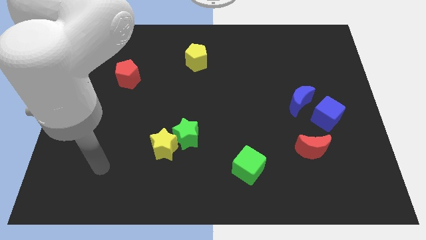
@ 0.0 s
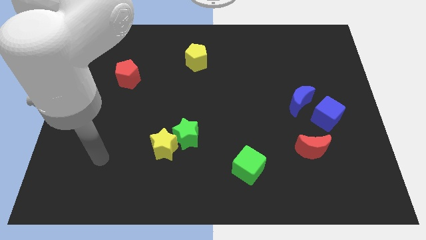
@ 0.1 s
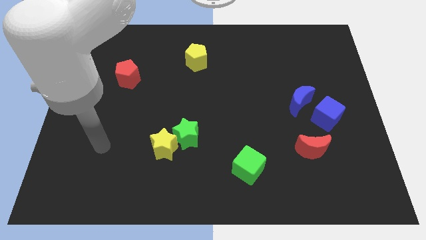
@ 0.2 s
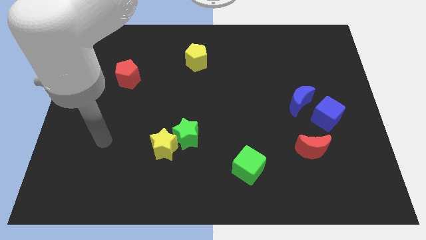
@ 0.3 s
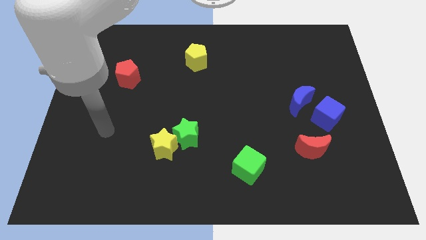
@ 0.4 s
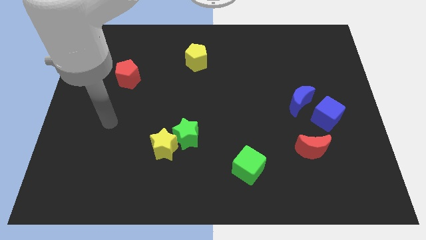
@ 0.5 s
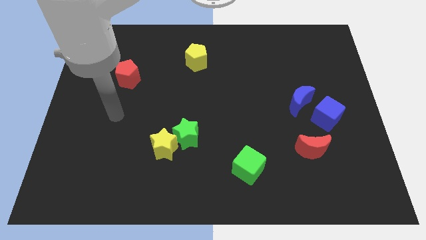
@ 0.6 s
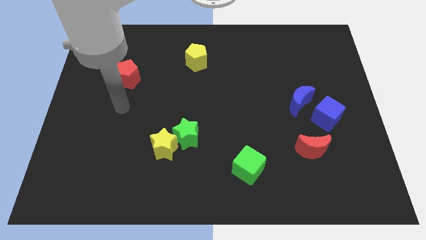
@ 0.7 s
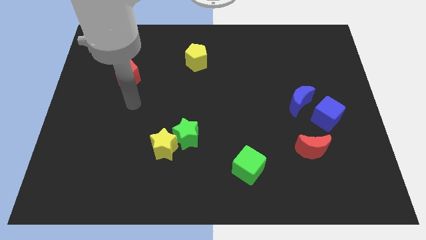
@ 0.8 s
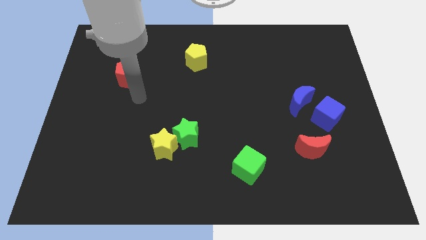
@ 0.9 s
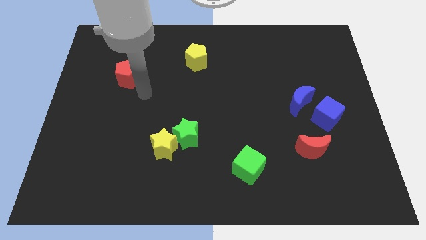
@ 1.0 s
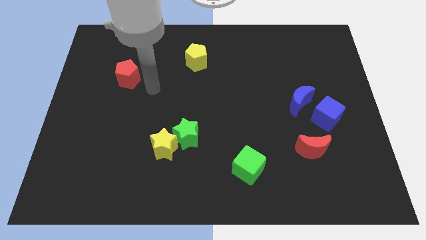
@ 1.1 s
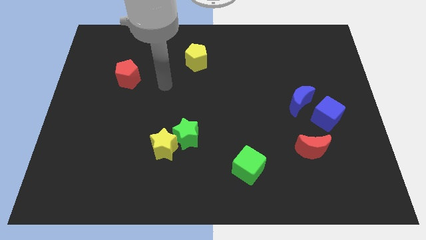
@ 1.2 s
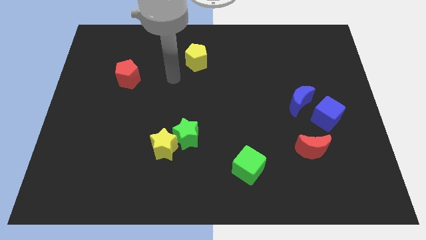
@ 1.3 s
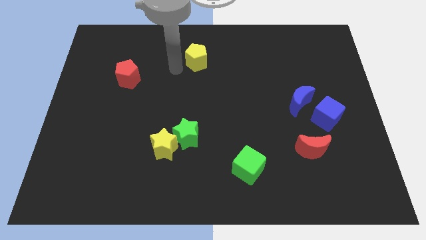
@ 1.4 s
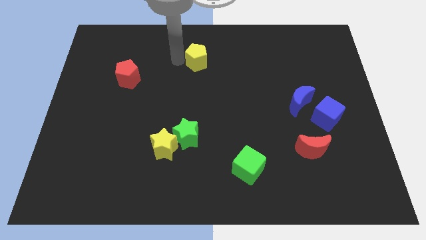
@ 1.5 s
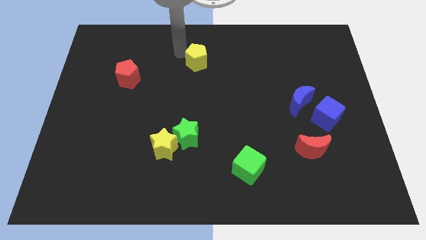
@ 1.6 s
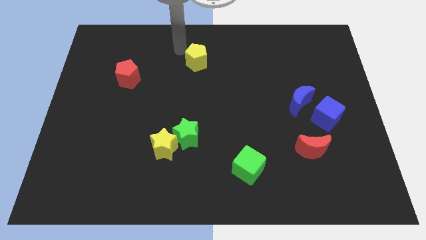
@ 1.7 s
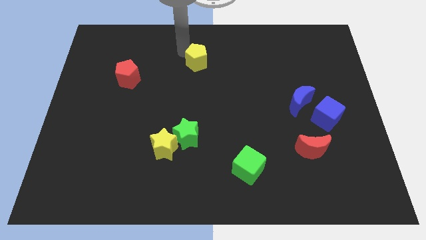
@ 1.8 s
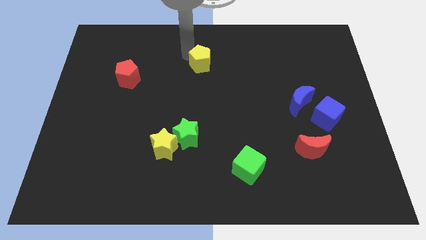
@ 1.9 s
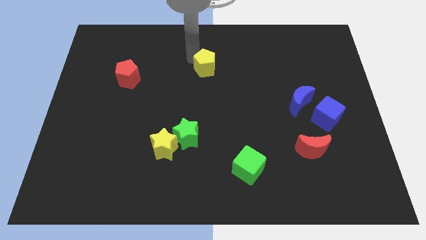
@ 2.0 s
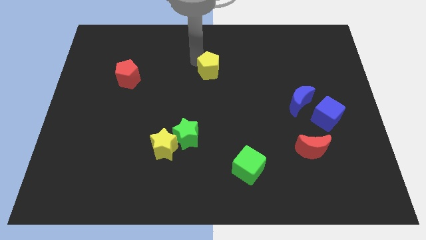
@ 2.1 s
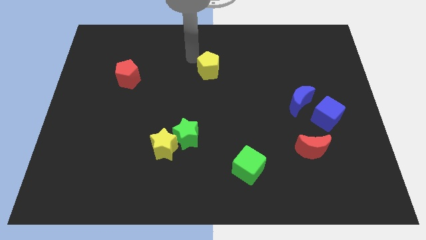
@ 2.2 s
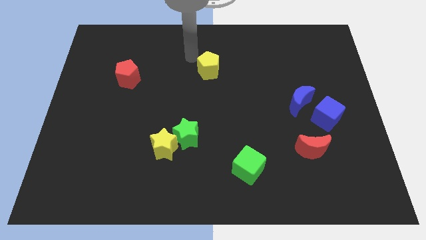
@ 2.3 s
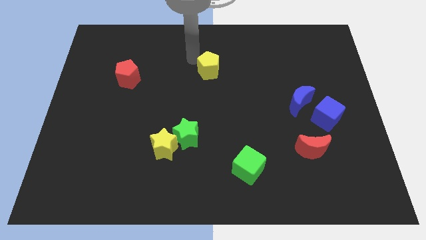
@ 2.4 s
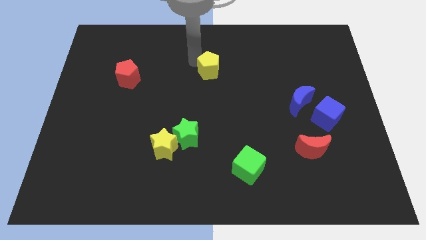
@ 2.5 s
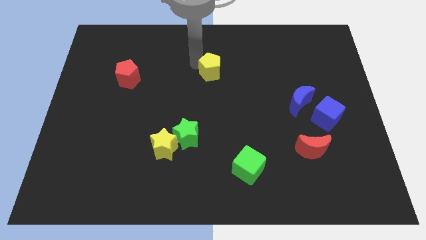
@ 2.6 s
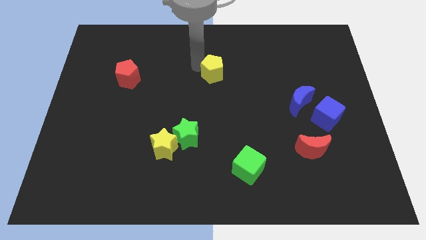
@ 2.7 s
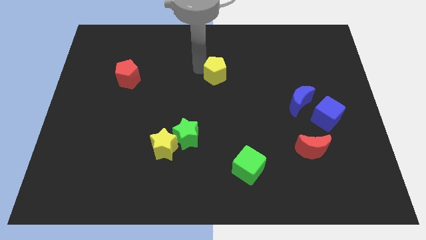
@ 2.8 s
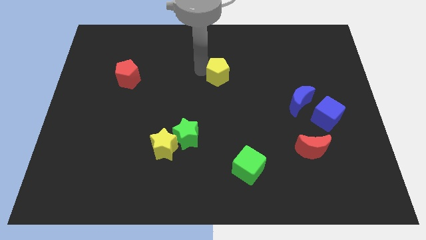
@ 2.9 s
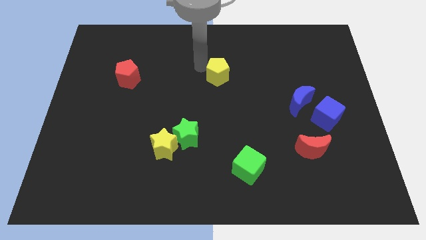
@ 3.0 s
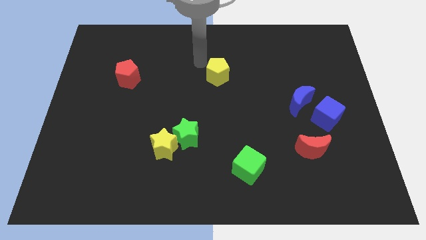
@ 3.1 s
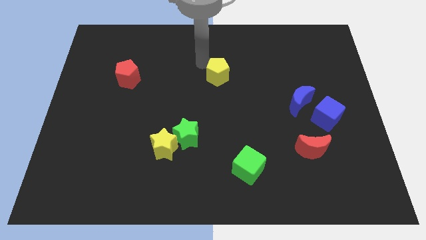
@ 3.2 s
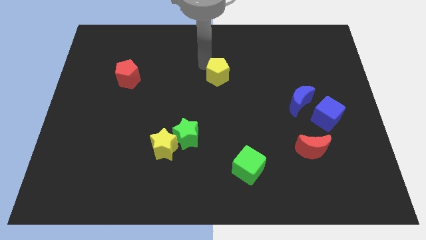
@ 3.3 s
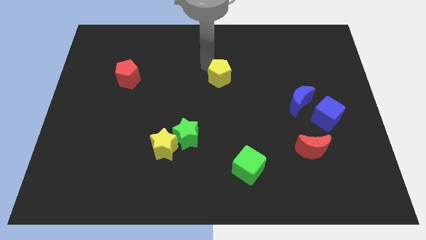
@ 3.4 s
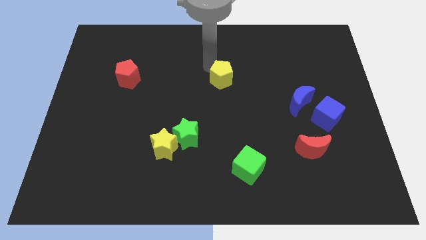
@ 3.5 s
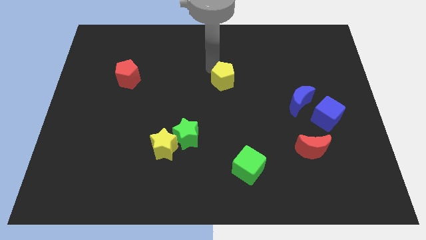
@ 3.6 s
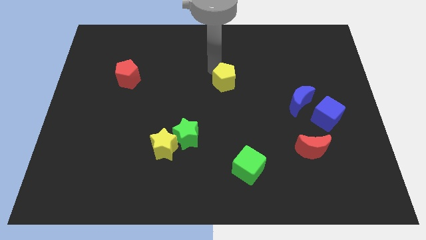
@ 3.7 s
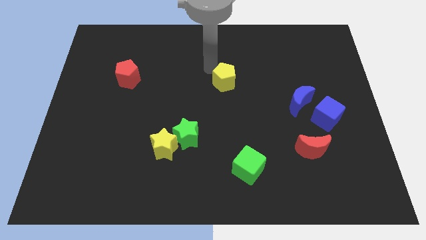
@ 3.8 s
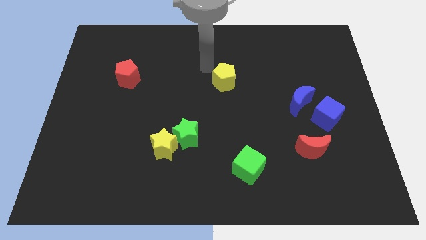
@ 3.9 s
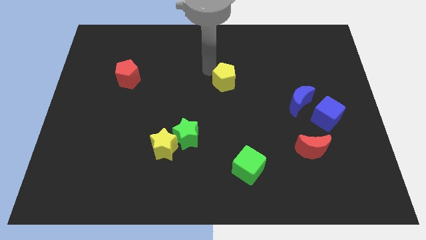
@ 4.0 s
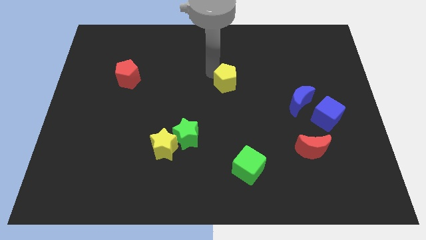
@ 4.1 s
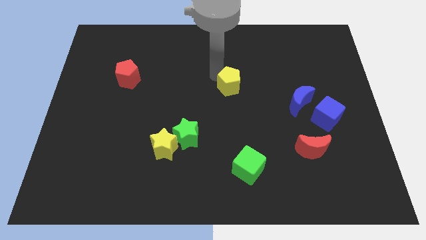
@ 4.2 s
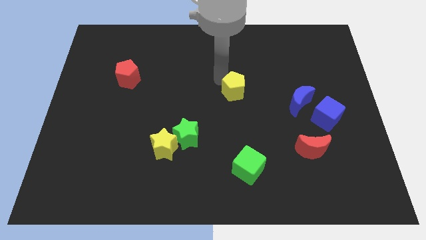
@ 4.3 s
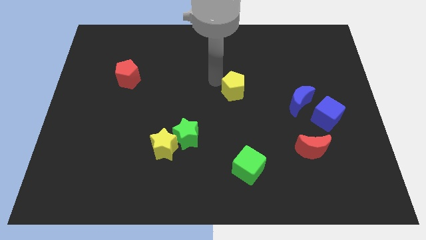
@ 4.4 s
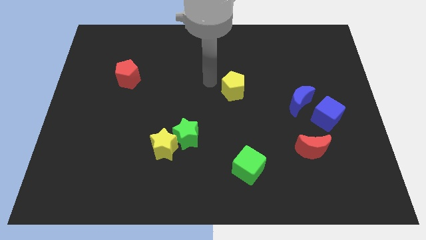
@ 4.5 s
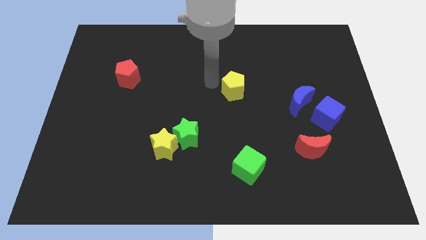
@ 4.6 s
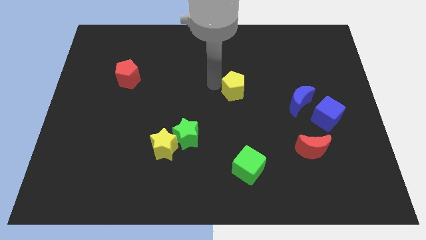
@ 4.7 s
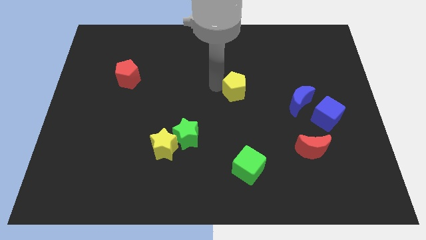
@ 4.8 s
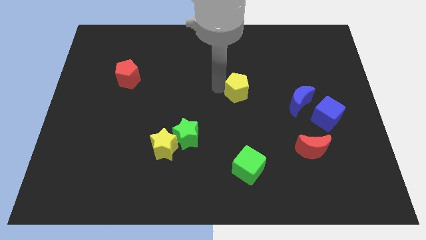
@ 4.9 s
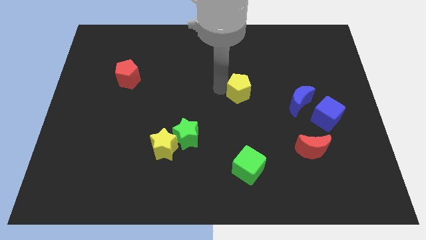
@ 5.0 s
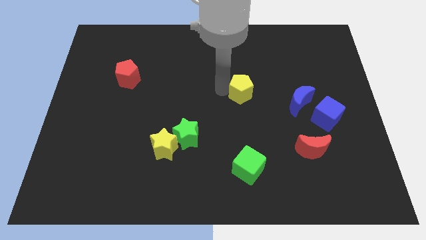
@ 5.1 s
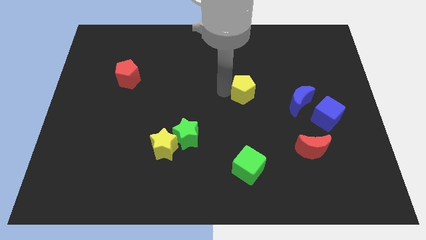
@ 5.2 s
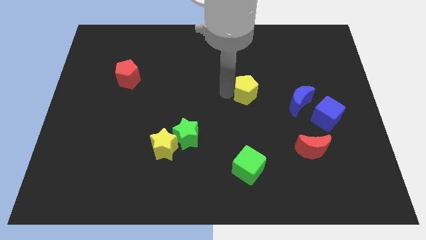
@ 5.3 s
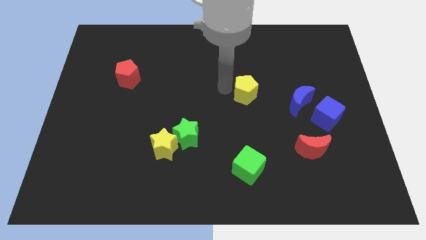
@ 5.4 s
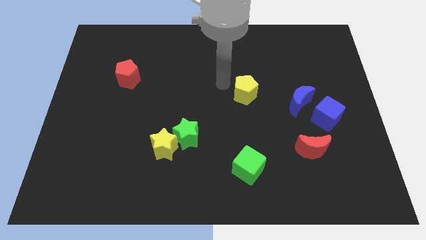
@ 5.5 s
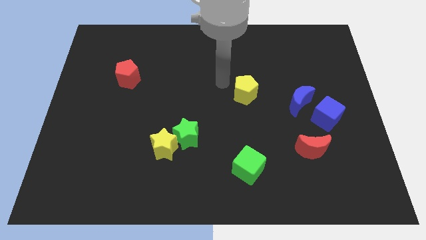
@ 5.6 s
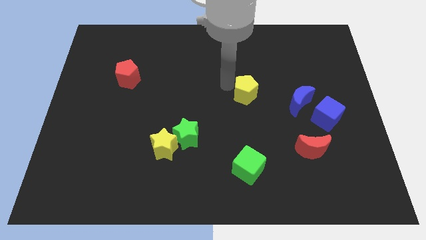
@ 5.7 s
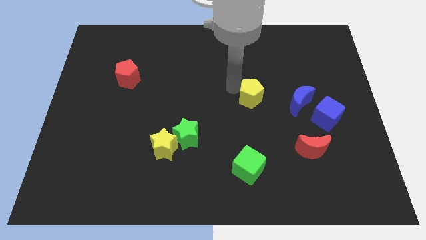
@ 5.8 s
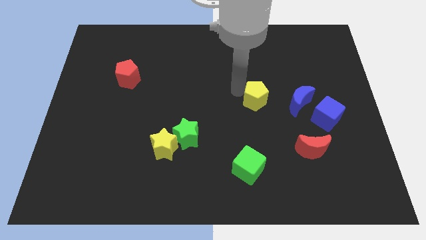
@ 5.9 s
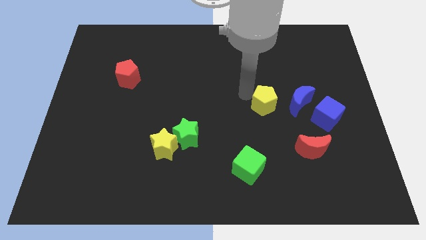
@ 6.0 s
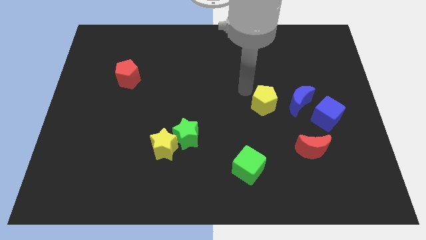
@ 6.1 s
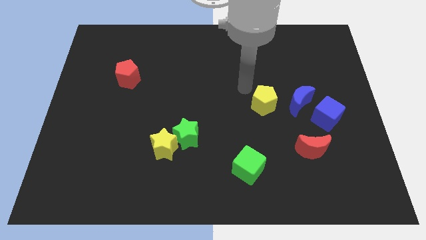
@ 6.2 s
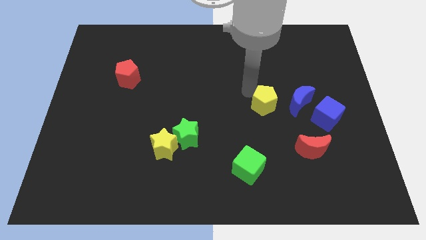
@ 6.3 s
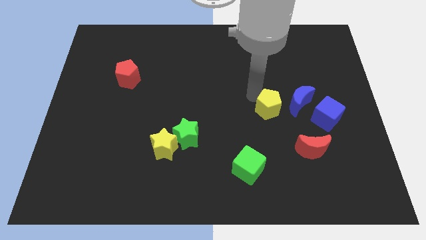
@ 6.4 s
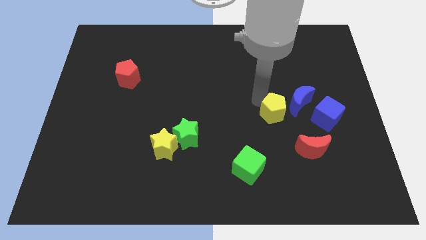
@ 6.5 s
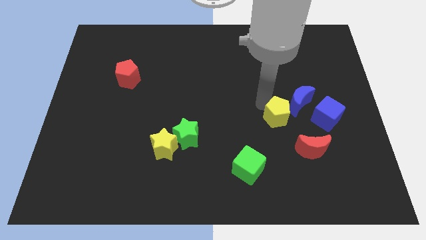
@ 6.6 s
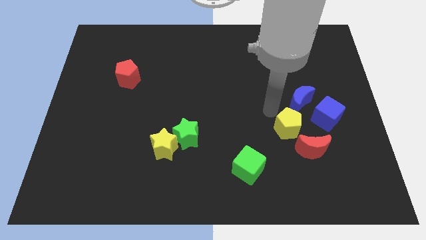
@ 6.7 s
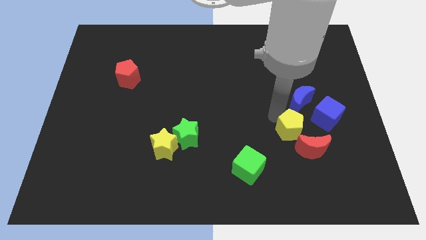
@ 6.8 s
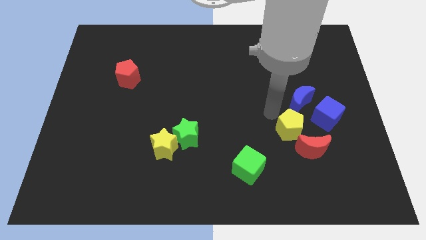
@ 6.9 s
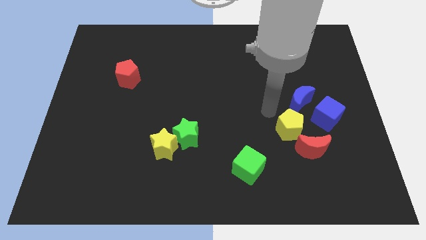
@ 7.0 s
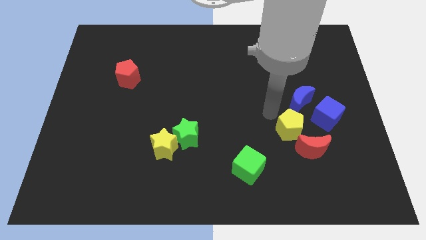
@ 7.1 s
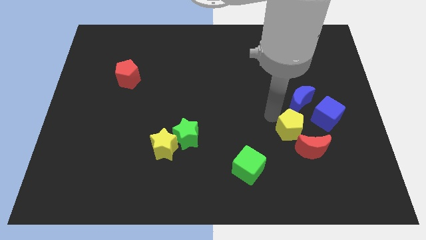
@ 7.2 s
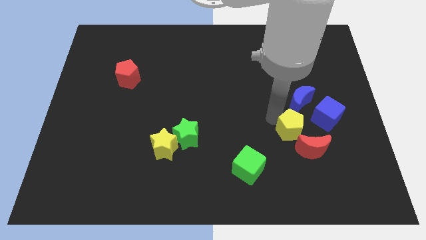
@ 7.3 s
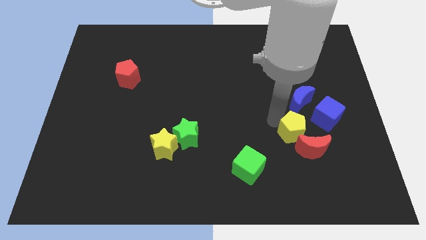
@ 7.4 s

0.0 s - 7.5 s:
put the yellow pentagon next to the red moon
